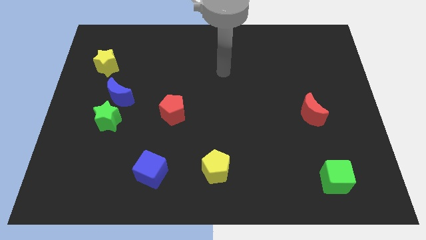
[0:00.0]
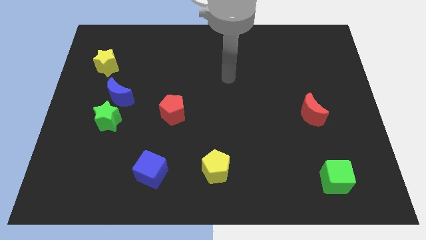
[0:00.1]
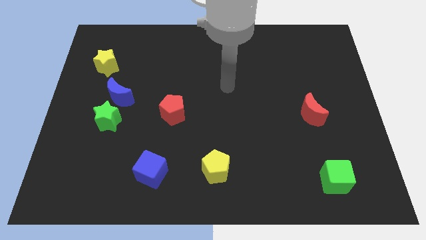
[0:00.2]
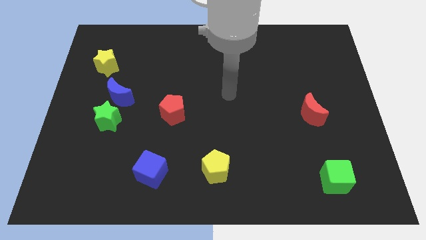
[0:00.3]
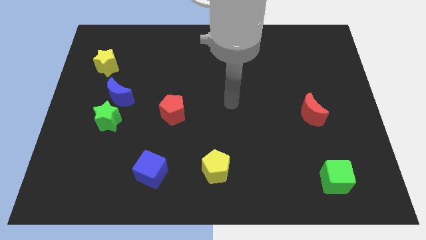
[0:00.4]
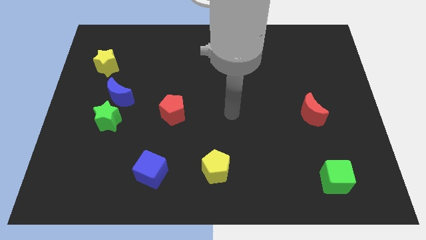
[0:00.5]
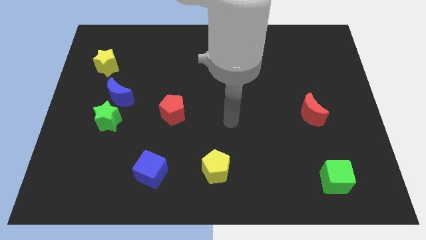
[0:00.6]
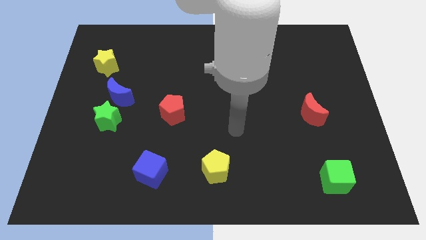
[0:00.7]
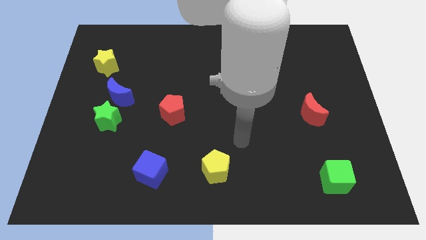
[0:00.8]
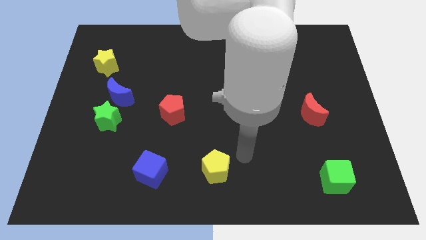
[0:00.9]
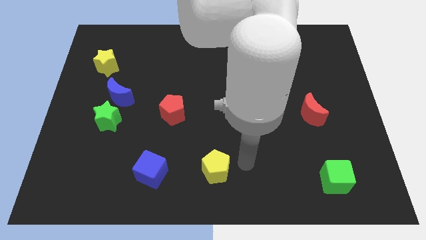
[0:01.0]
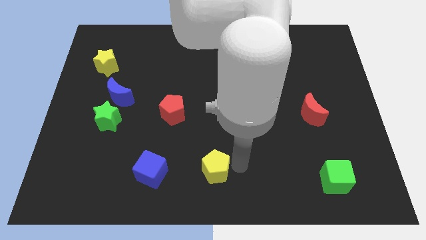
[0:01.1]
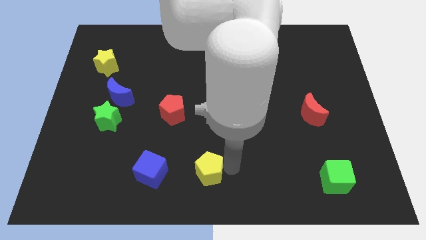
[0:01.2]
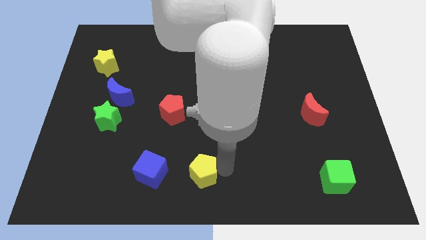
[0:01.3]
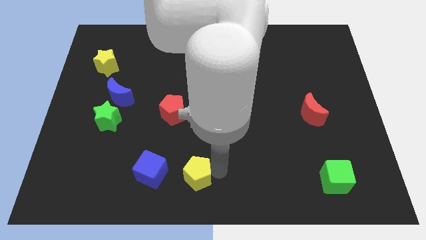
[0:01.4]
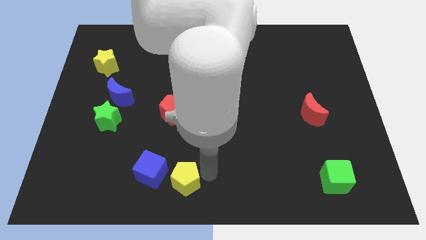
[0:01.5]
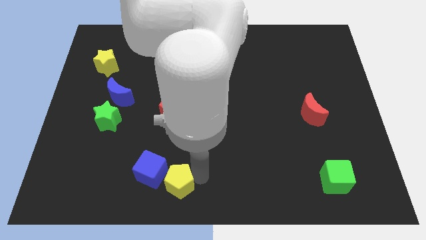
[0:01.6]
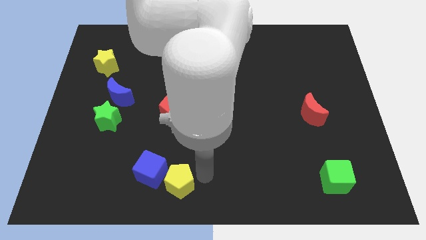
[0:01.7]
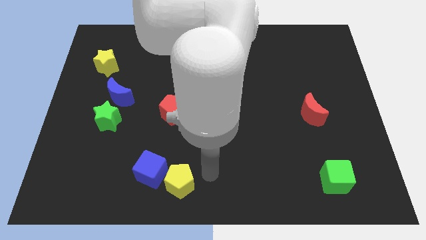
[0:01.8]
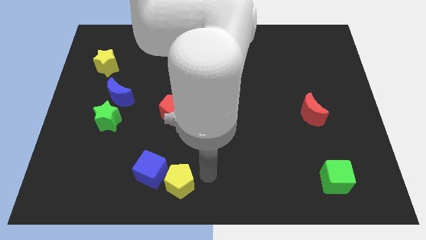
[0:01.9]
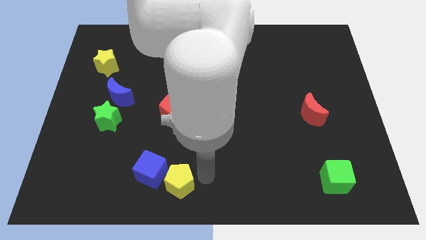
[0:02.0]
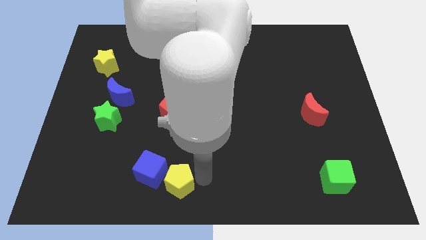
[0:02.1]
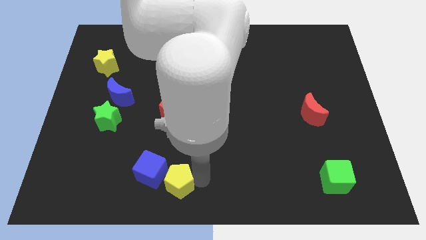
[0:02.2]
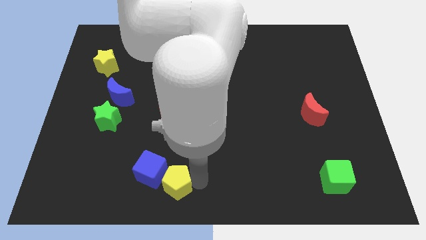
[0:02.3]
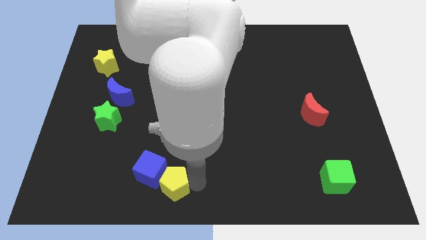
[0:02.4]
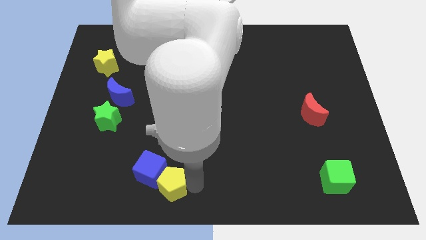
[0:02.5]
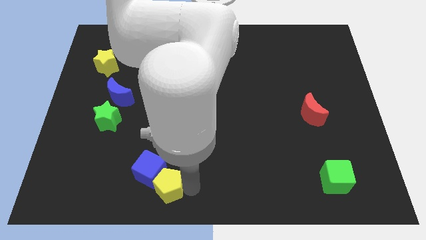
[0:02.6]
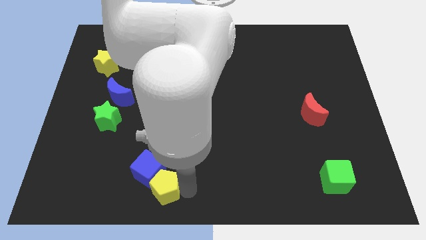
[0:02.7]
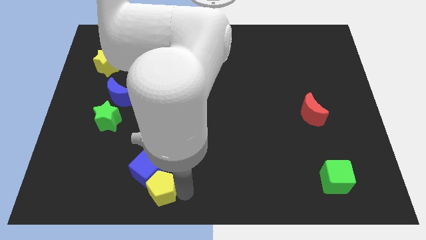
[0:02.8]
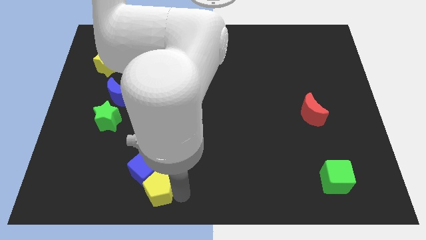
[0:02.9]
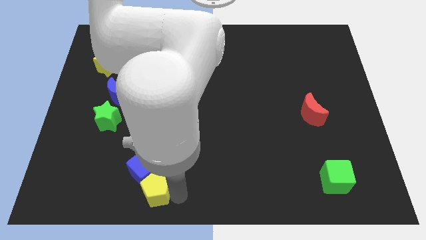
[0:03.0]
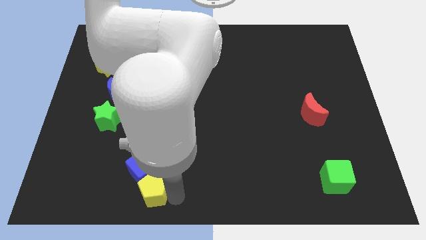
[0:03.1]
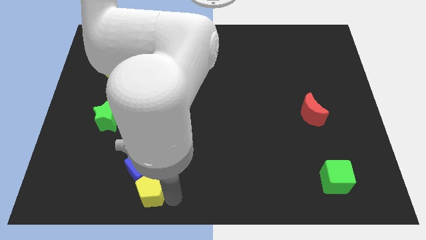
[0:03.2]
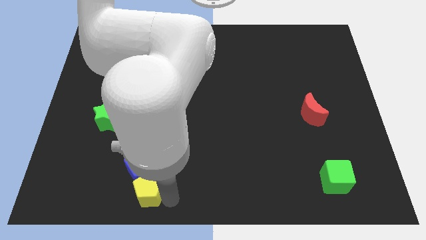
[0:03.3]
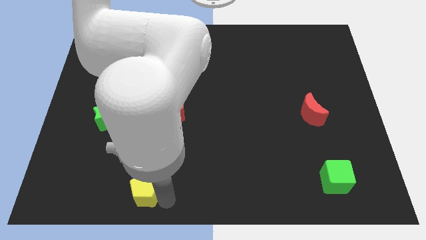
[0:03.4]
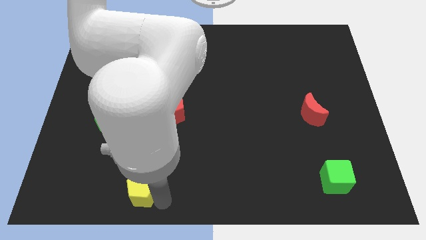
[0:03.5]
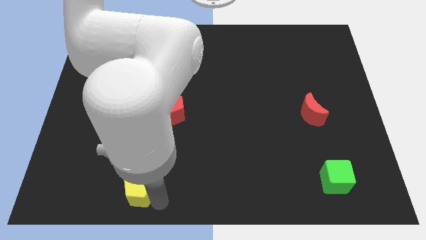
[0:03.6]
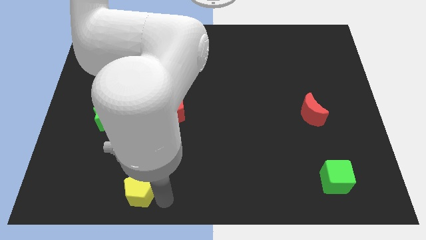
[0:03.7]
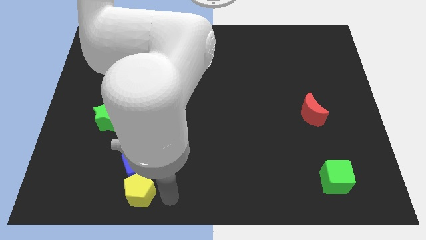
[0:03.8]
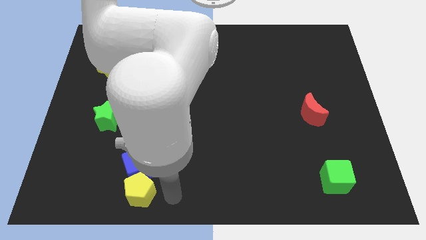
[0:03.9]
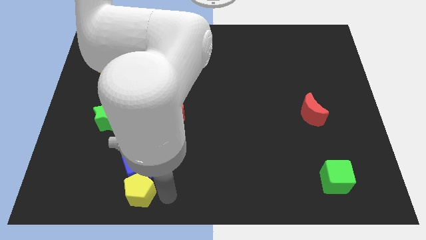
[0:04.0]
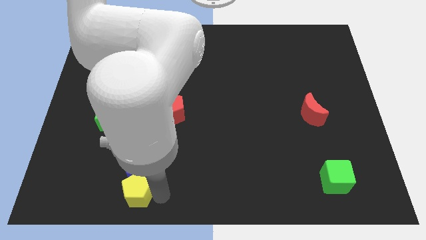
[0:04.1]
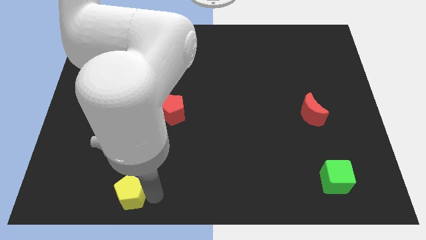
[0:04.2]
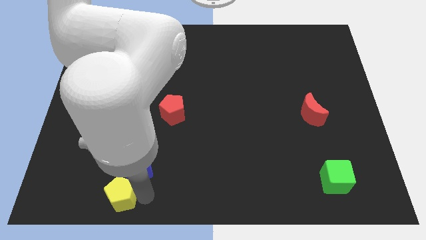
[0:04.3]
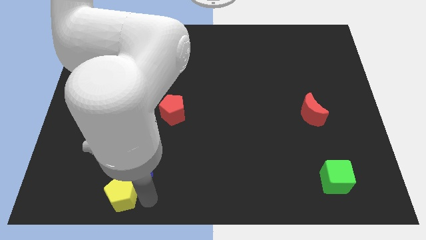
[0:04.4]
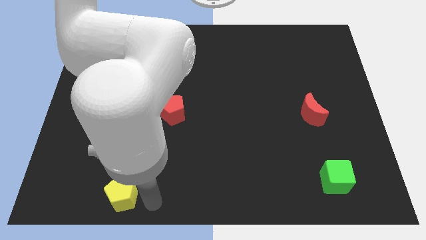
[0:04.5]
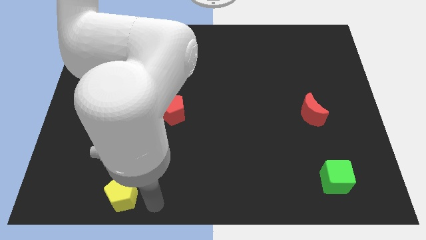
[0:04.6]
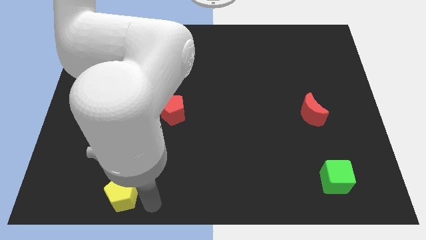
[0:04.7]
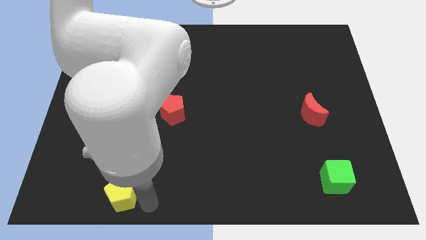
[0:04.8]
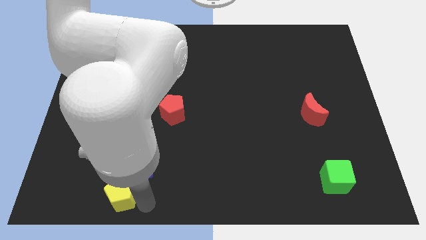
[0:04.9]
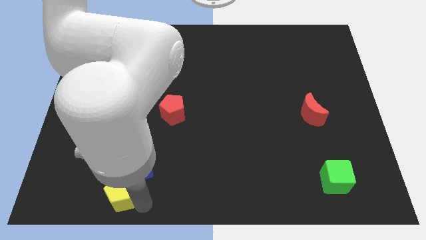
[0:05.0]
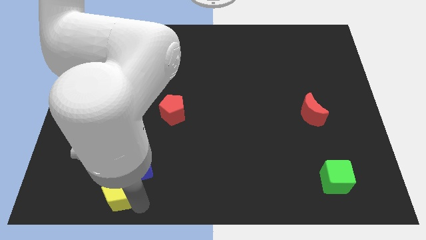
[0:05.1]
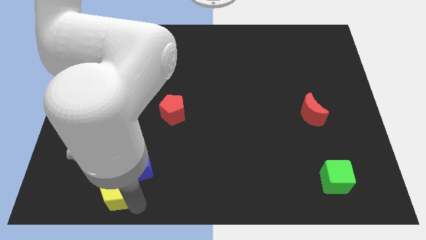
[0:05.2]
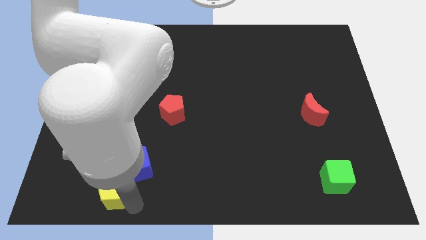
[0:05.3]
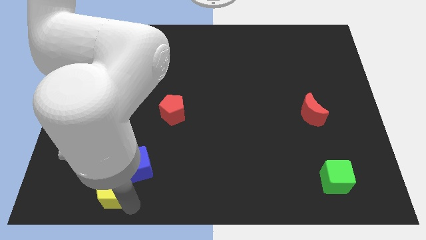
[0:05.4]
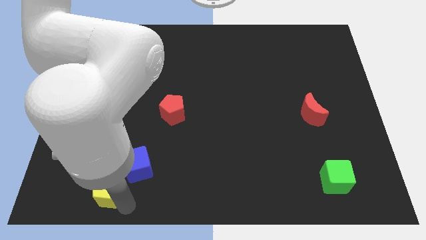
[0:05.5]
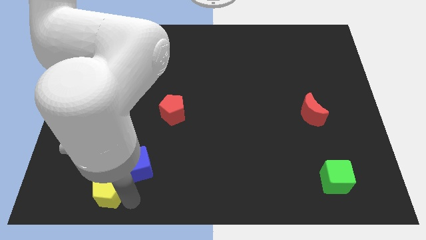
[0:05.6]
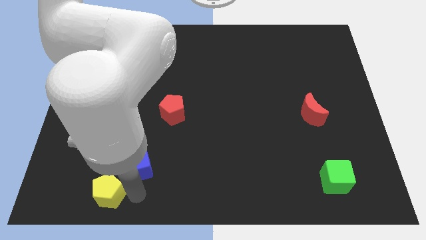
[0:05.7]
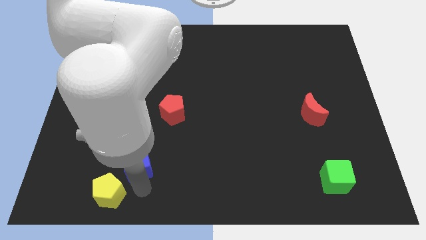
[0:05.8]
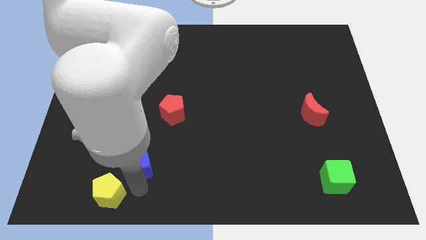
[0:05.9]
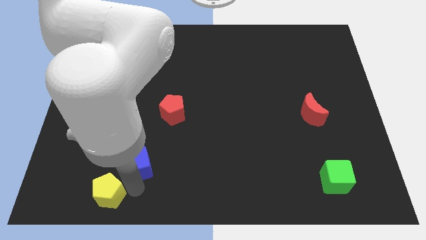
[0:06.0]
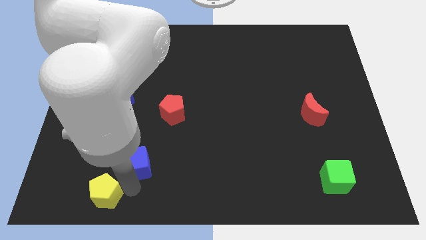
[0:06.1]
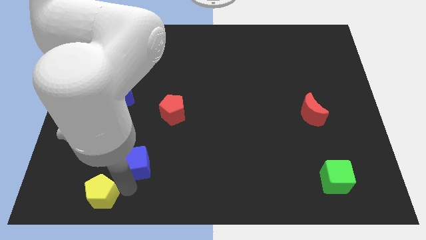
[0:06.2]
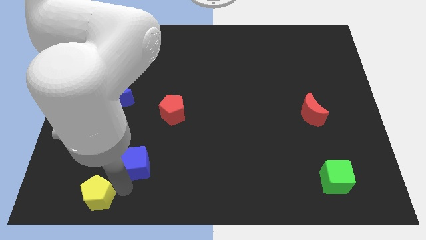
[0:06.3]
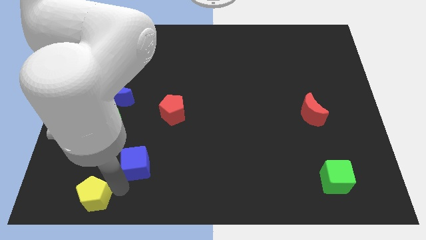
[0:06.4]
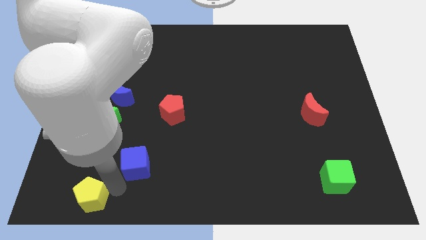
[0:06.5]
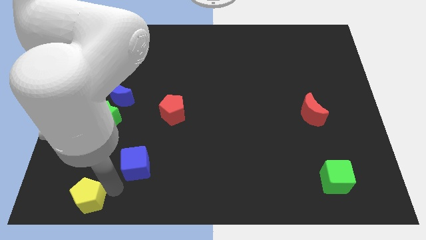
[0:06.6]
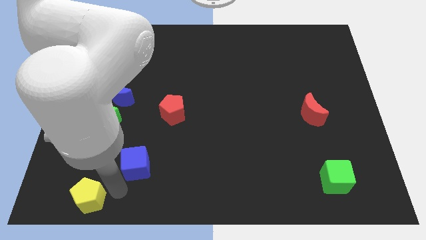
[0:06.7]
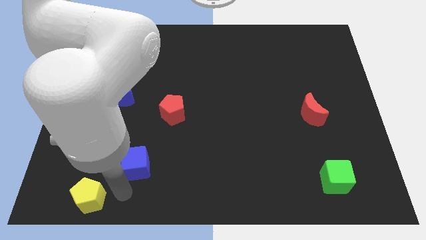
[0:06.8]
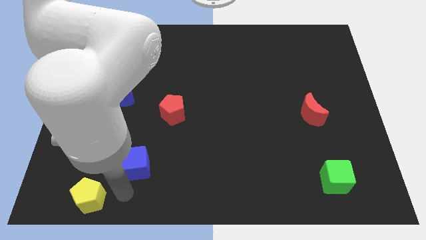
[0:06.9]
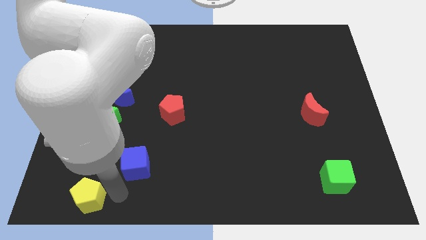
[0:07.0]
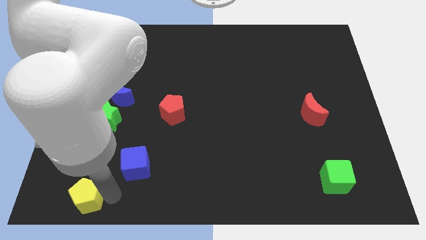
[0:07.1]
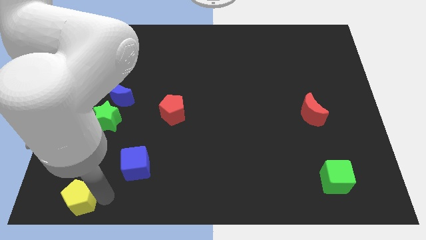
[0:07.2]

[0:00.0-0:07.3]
move the yellow pentagon to the lower left corner

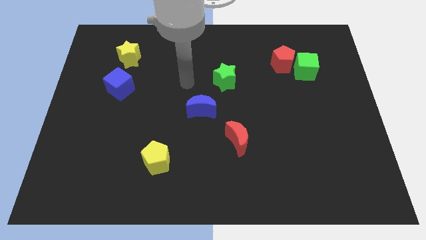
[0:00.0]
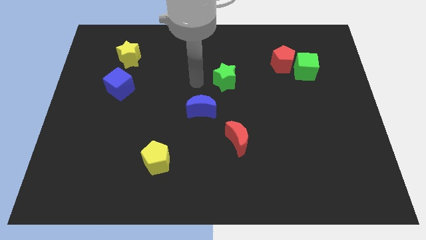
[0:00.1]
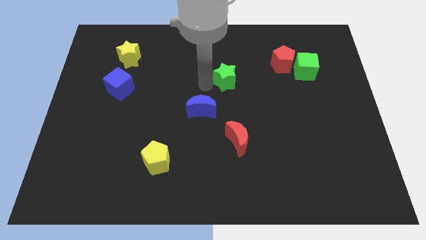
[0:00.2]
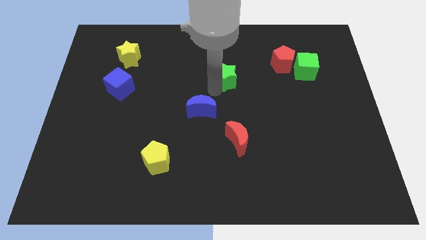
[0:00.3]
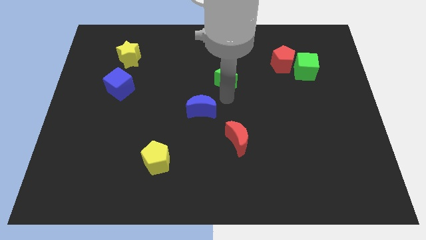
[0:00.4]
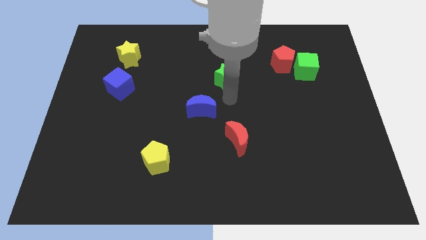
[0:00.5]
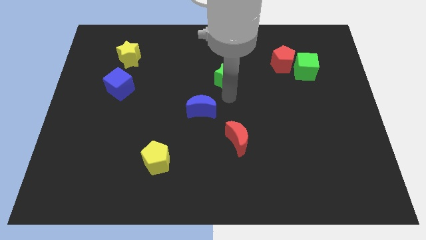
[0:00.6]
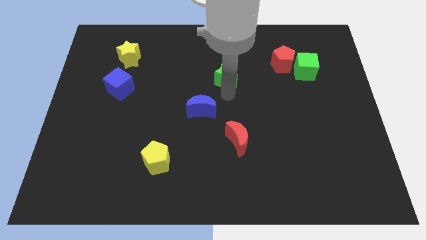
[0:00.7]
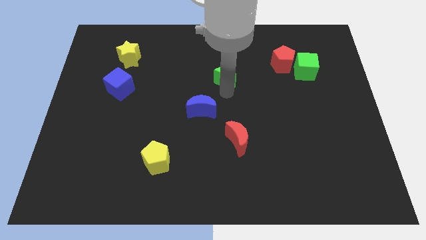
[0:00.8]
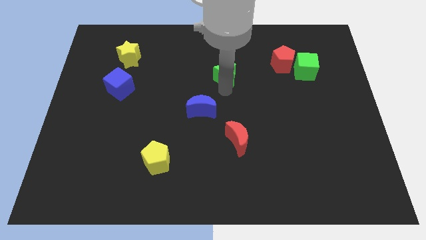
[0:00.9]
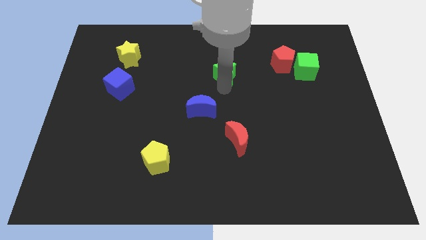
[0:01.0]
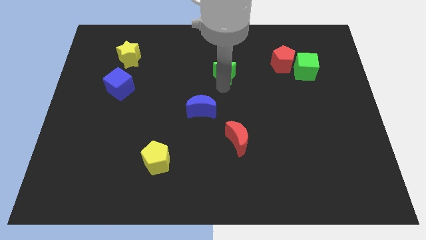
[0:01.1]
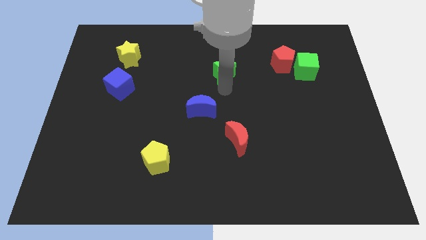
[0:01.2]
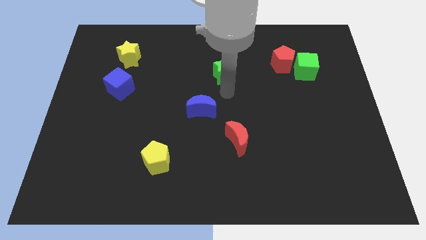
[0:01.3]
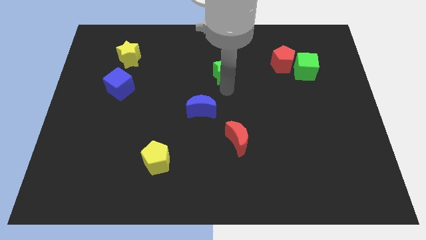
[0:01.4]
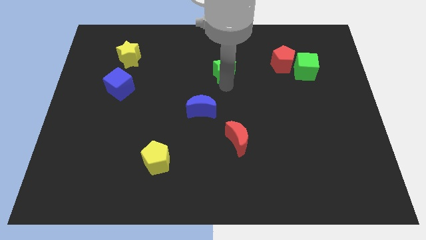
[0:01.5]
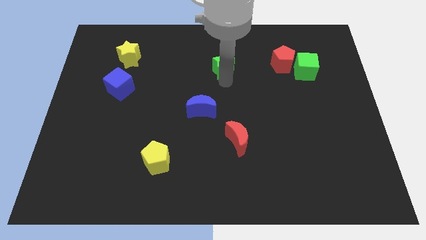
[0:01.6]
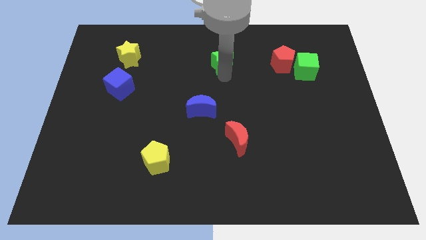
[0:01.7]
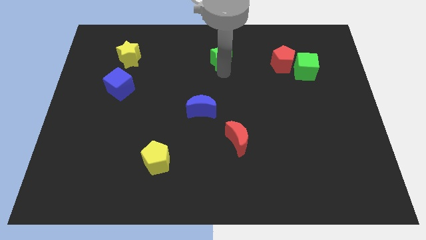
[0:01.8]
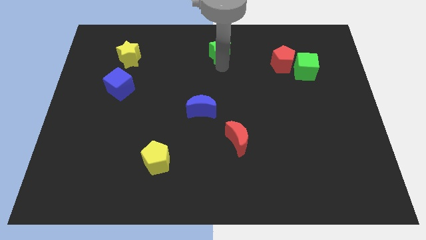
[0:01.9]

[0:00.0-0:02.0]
slide the green star to the top side
